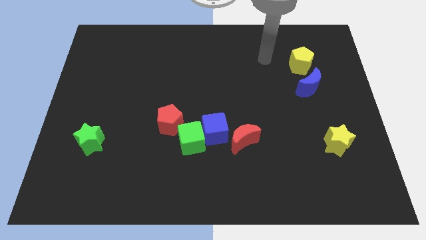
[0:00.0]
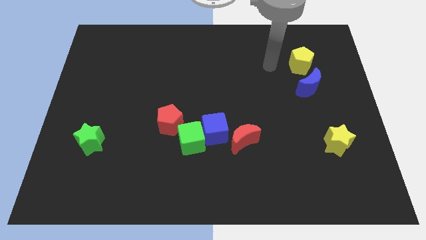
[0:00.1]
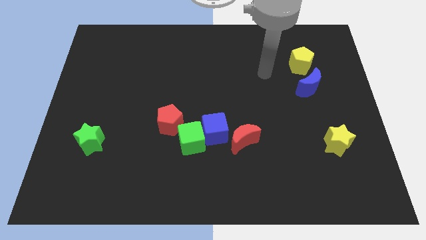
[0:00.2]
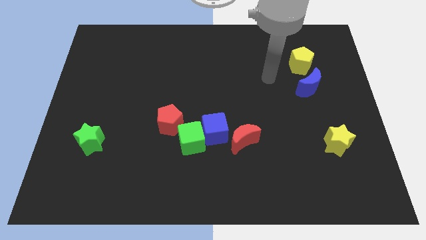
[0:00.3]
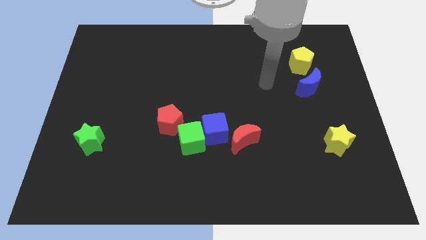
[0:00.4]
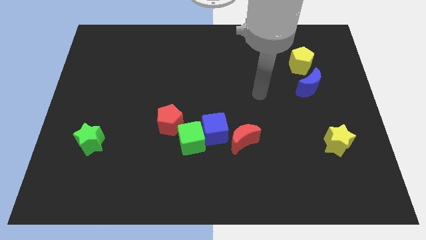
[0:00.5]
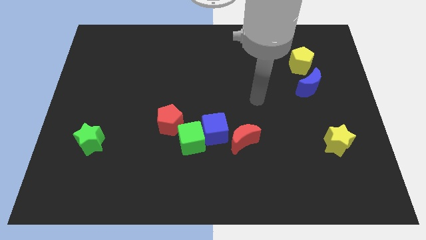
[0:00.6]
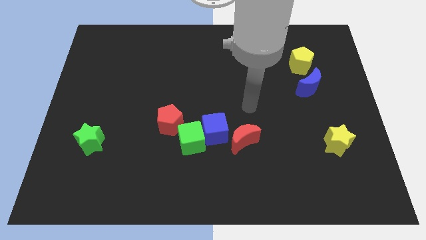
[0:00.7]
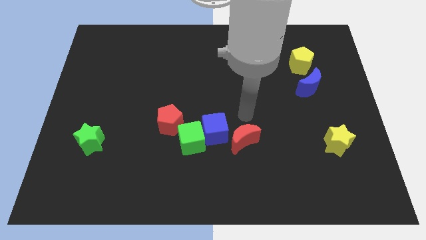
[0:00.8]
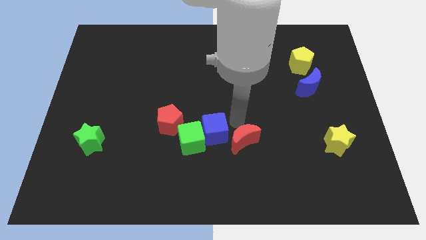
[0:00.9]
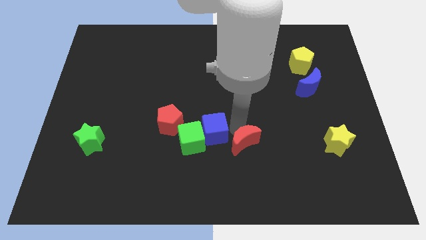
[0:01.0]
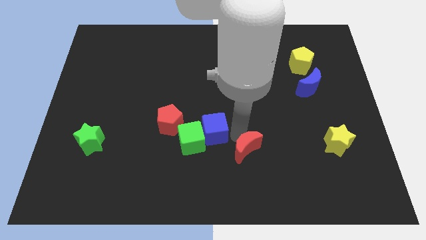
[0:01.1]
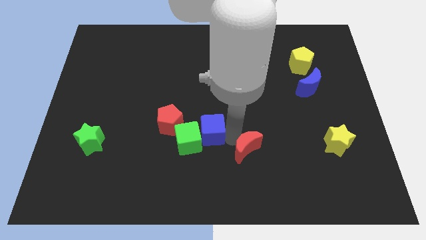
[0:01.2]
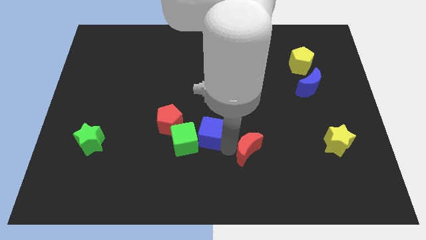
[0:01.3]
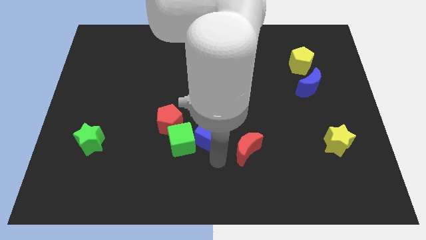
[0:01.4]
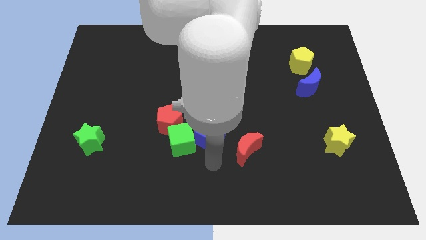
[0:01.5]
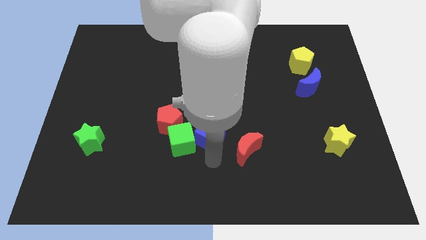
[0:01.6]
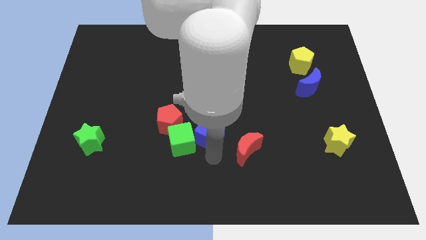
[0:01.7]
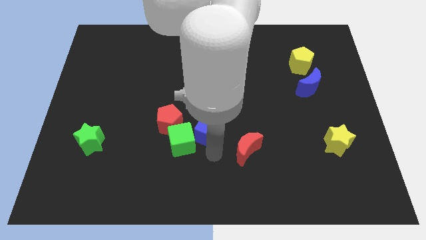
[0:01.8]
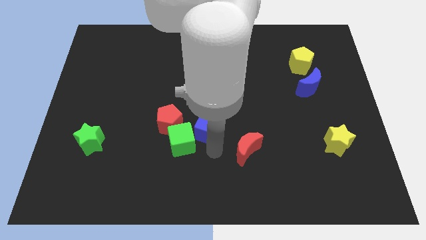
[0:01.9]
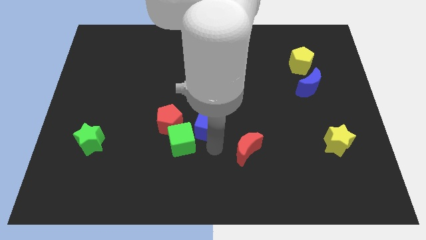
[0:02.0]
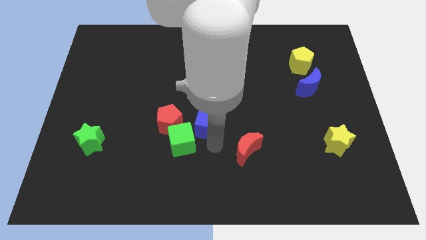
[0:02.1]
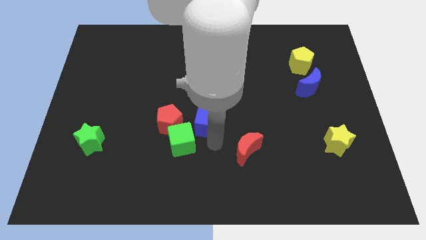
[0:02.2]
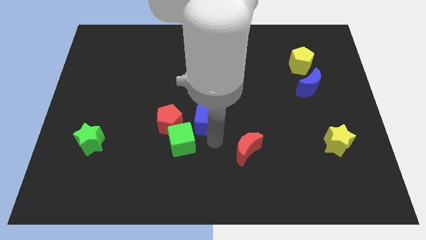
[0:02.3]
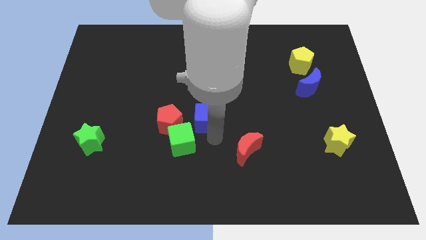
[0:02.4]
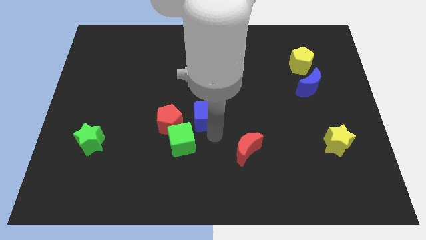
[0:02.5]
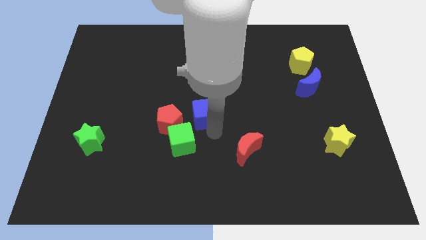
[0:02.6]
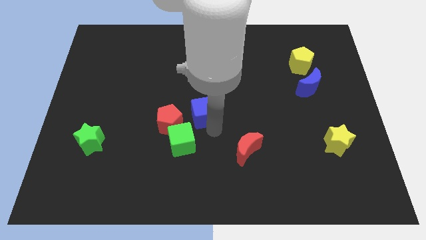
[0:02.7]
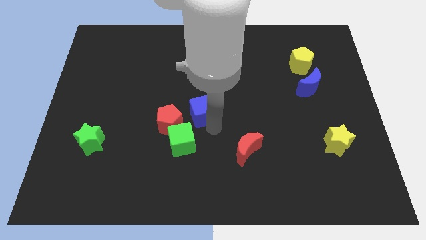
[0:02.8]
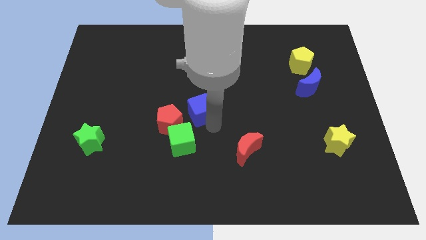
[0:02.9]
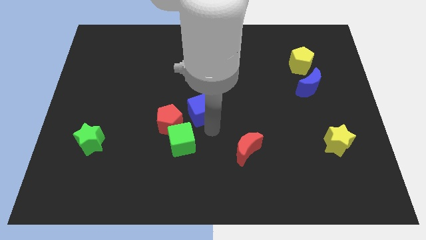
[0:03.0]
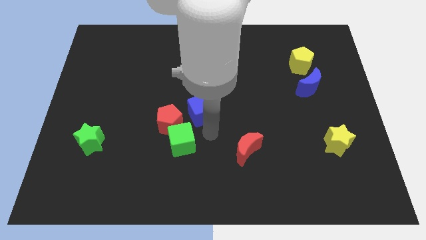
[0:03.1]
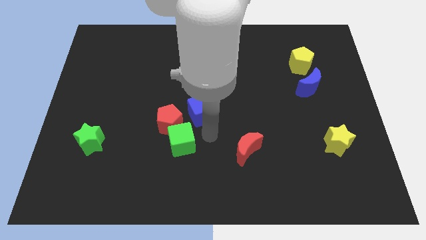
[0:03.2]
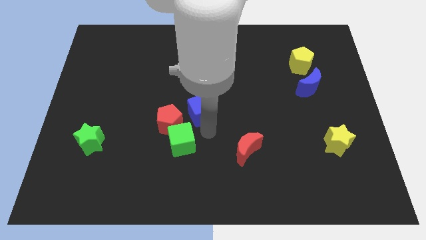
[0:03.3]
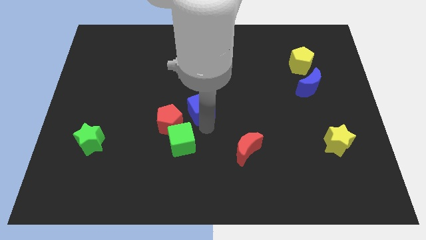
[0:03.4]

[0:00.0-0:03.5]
separate the blue cube from the green cube and red moon

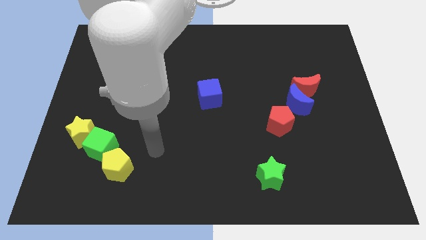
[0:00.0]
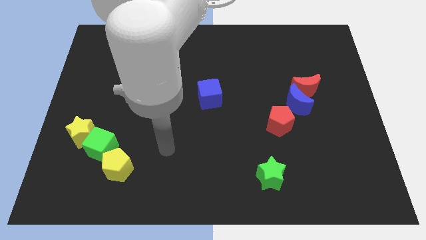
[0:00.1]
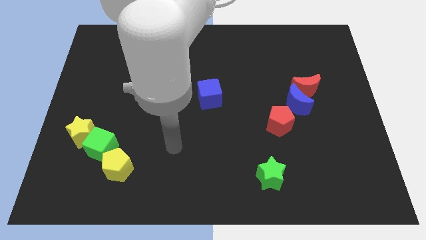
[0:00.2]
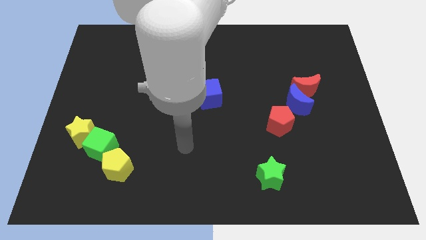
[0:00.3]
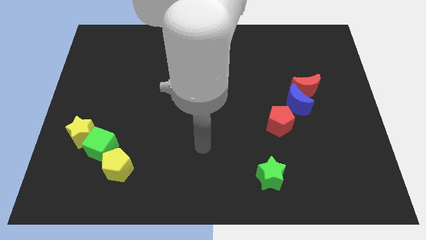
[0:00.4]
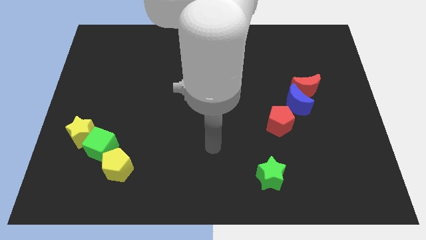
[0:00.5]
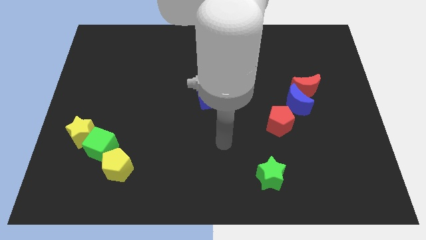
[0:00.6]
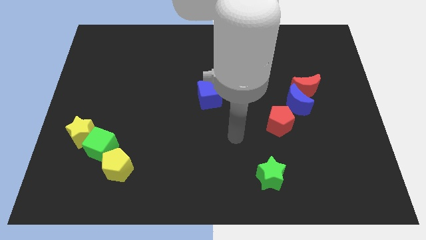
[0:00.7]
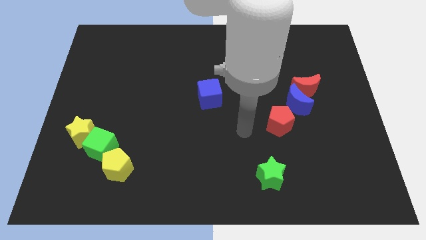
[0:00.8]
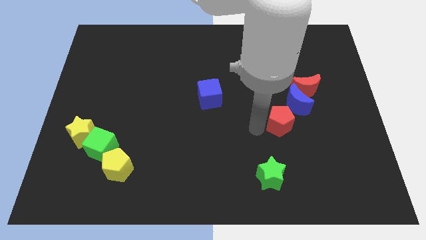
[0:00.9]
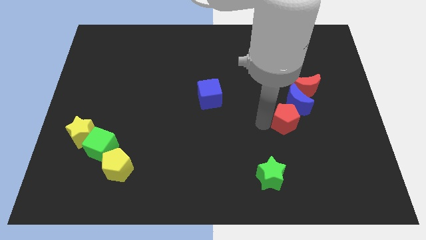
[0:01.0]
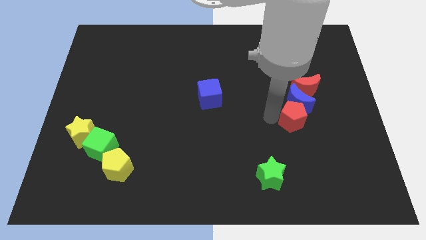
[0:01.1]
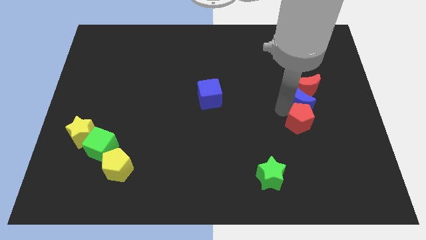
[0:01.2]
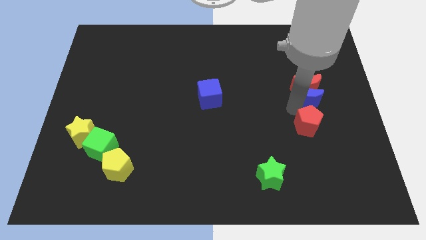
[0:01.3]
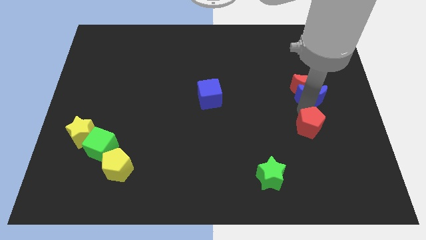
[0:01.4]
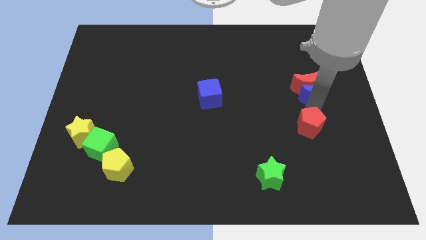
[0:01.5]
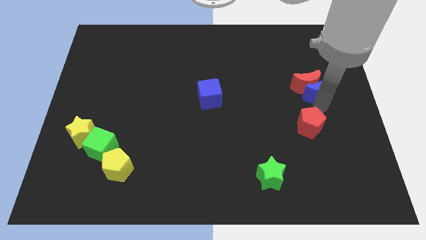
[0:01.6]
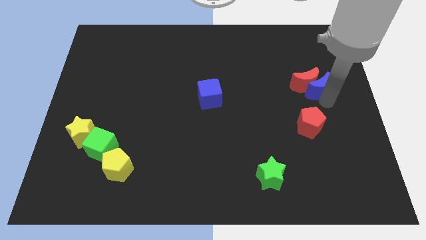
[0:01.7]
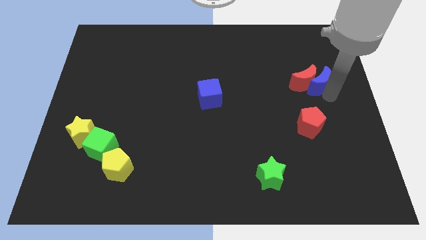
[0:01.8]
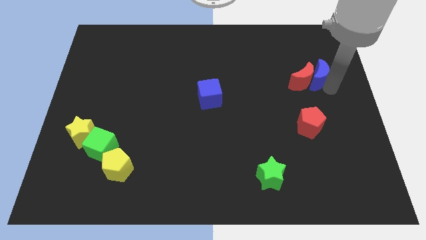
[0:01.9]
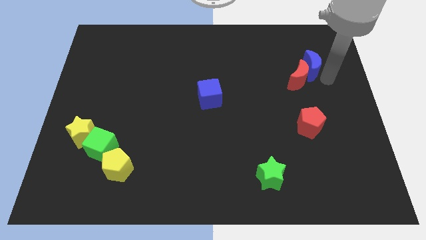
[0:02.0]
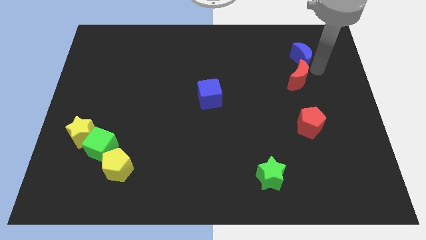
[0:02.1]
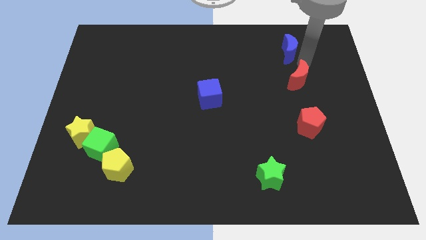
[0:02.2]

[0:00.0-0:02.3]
pull the red moon apart from the blue moon

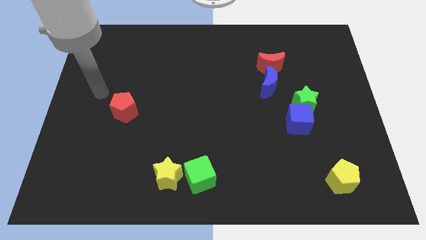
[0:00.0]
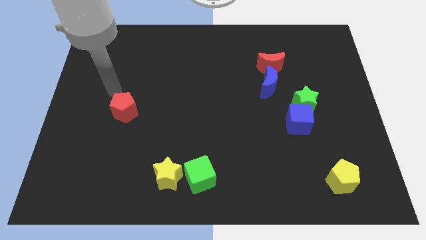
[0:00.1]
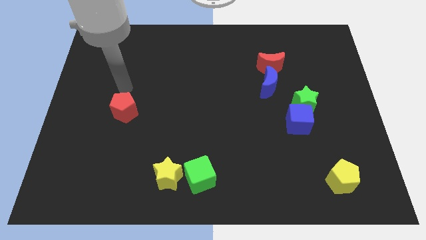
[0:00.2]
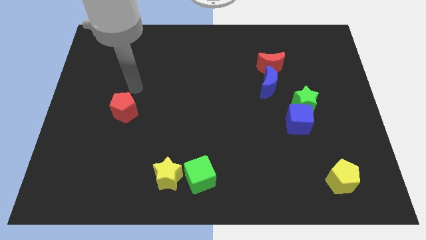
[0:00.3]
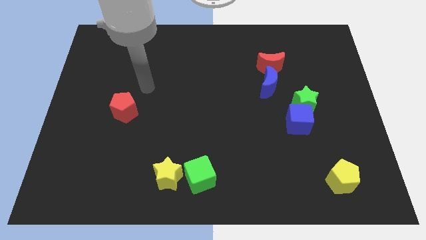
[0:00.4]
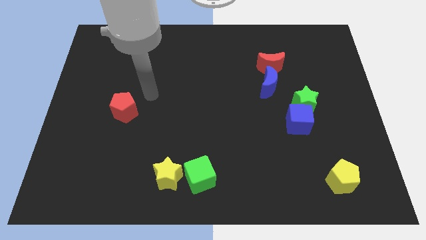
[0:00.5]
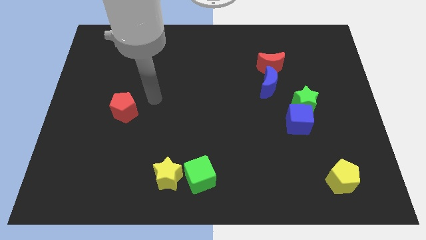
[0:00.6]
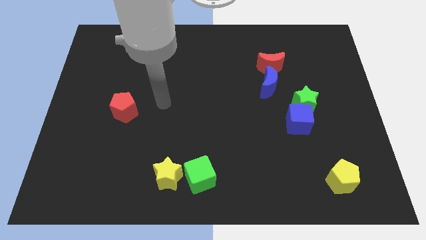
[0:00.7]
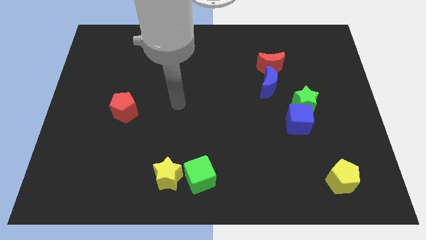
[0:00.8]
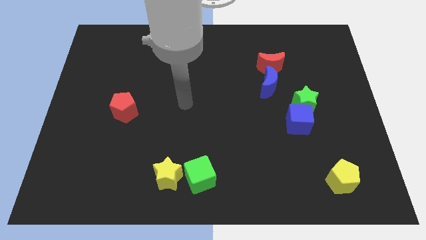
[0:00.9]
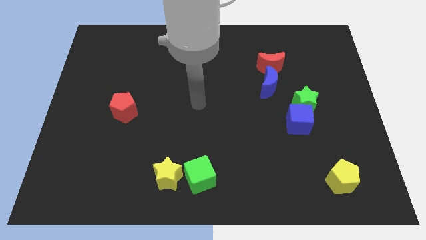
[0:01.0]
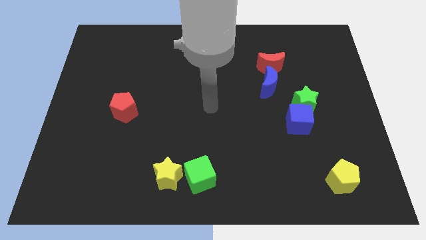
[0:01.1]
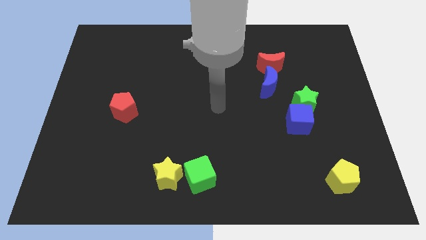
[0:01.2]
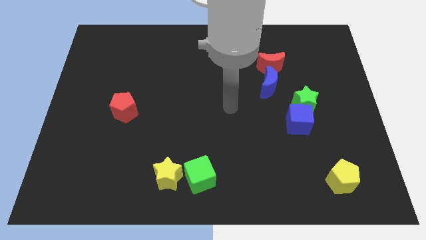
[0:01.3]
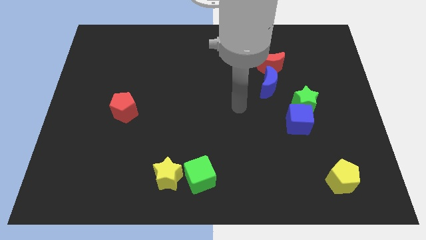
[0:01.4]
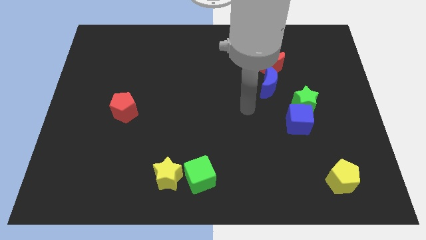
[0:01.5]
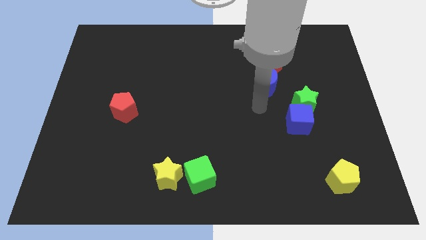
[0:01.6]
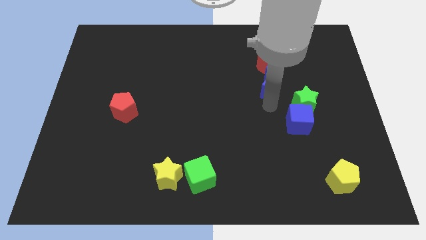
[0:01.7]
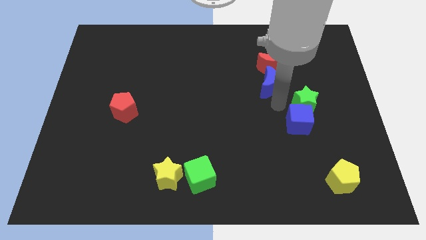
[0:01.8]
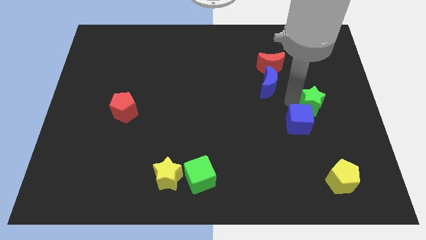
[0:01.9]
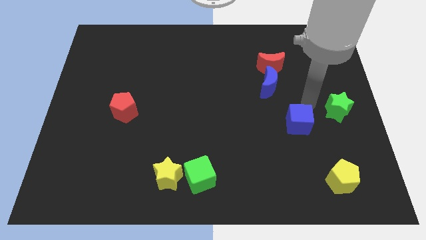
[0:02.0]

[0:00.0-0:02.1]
separate the blue cube from the green star

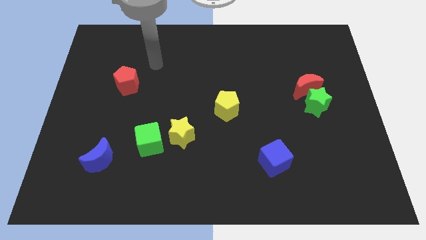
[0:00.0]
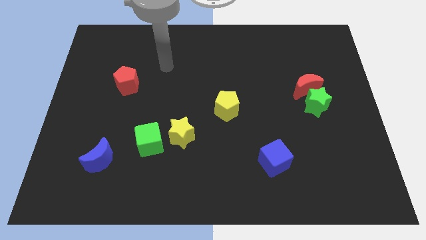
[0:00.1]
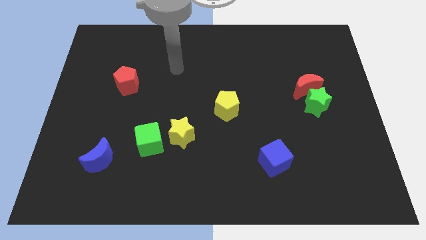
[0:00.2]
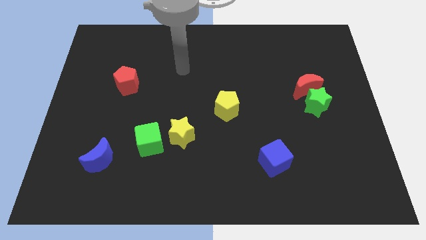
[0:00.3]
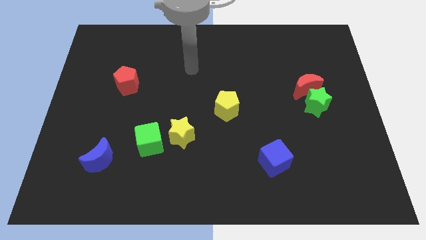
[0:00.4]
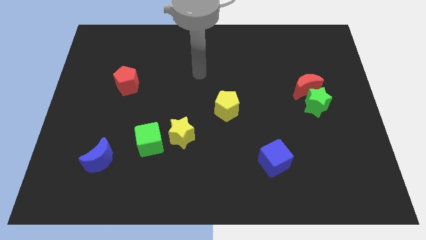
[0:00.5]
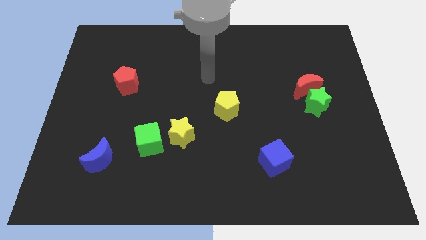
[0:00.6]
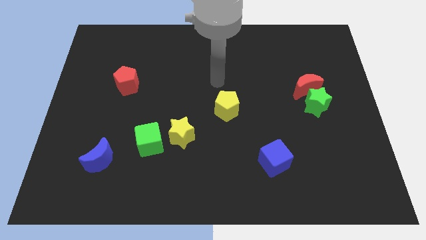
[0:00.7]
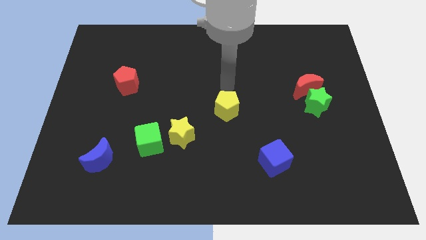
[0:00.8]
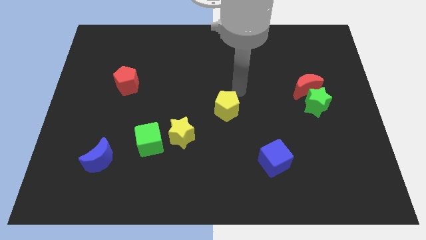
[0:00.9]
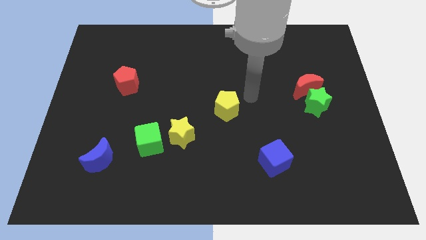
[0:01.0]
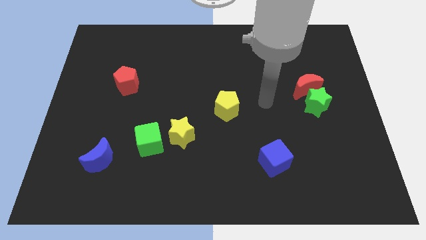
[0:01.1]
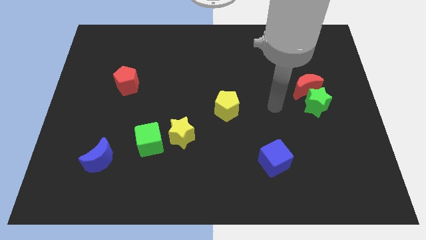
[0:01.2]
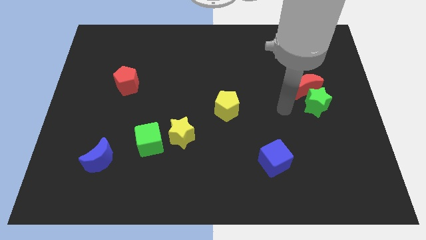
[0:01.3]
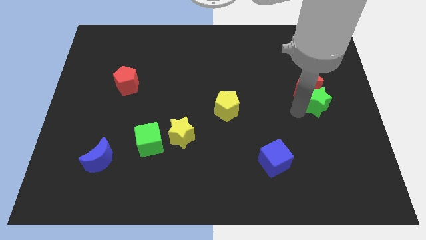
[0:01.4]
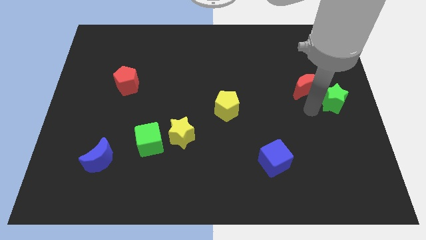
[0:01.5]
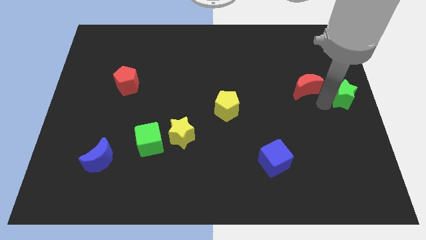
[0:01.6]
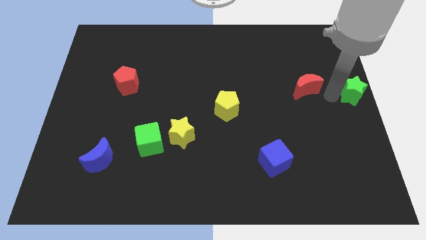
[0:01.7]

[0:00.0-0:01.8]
pull the red moon apart from the green star
